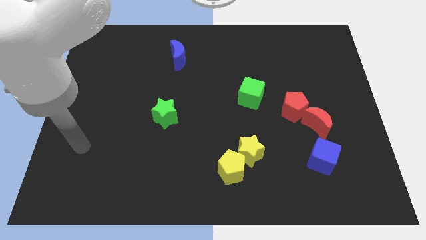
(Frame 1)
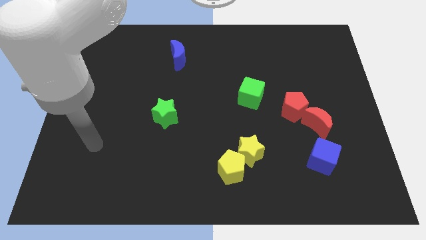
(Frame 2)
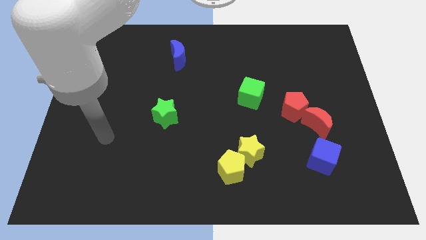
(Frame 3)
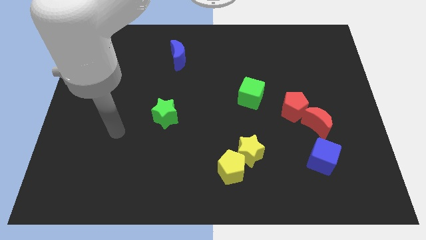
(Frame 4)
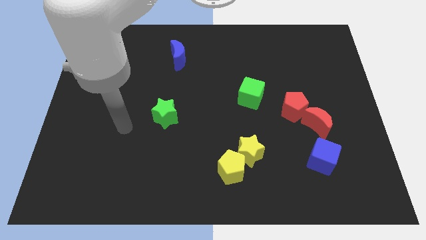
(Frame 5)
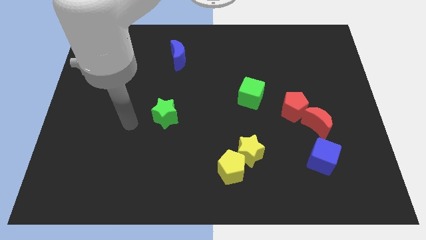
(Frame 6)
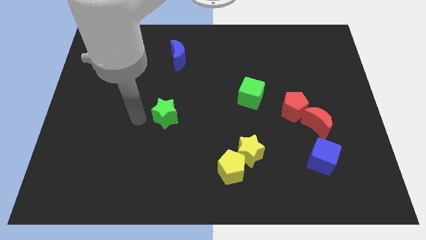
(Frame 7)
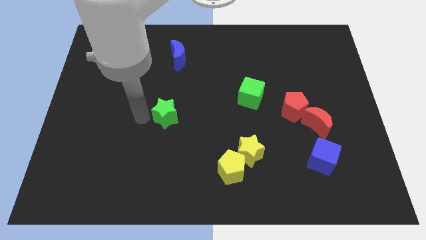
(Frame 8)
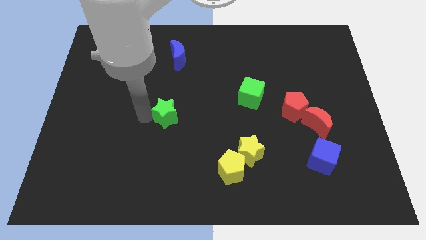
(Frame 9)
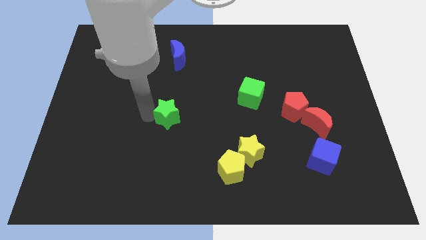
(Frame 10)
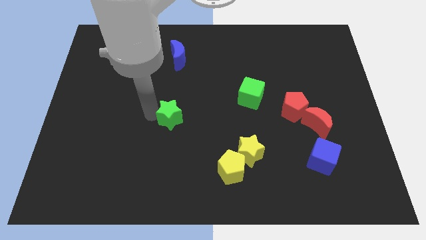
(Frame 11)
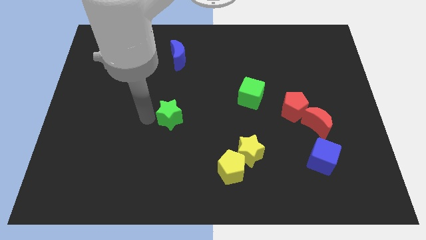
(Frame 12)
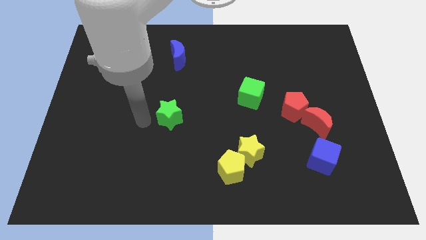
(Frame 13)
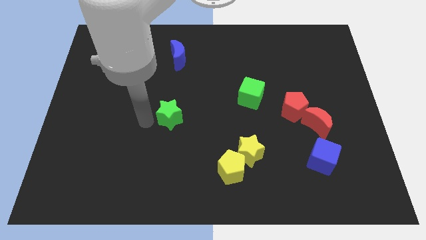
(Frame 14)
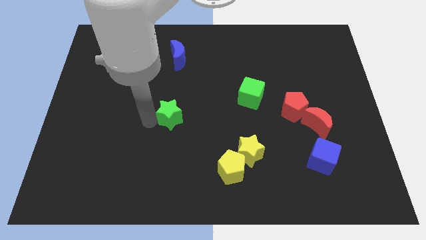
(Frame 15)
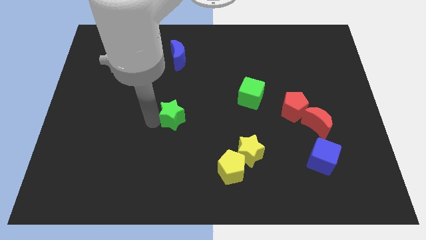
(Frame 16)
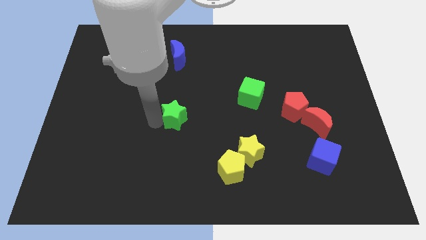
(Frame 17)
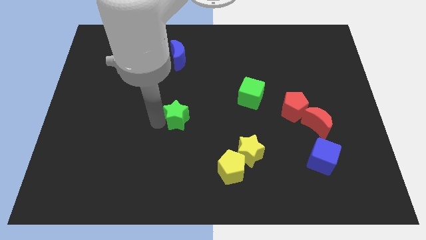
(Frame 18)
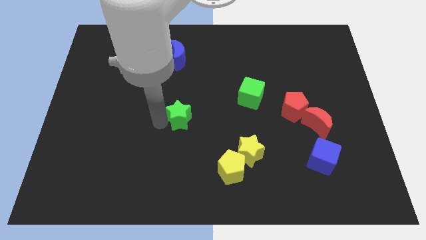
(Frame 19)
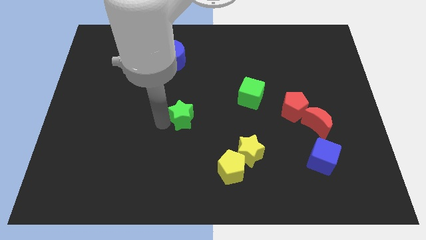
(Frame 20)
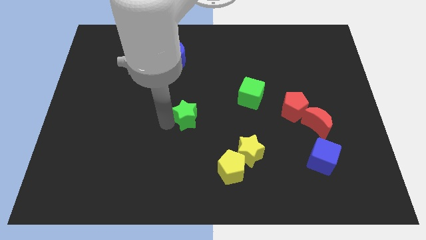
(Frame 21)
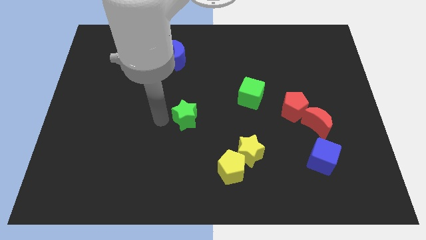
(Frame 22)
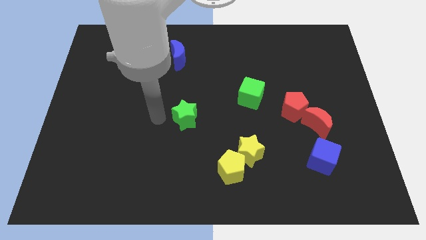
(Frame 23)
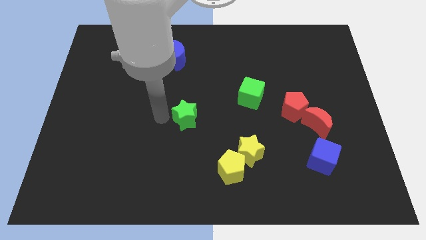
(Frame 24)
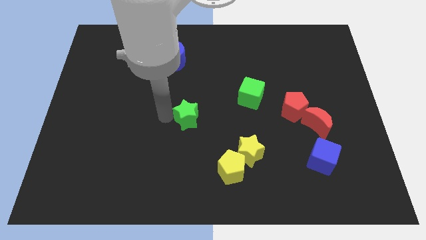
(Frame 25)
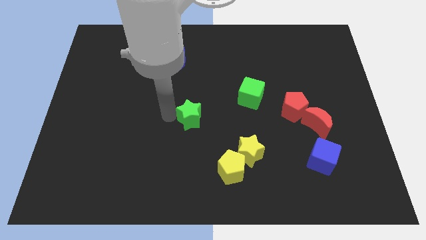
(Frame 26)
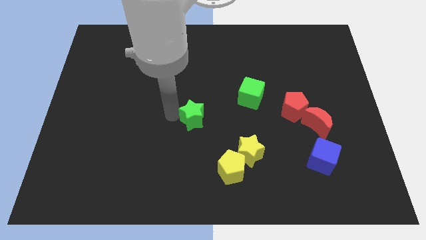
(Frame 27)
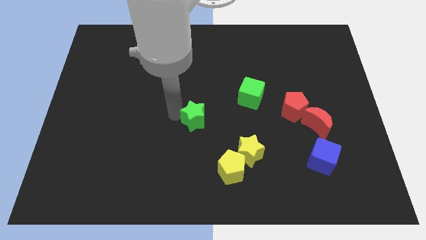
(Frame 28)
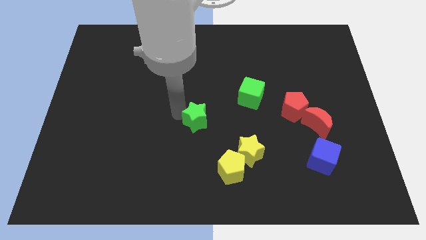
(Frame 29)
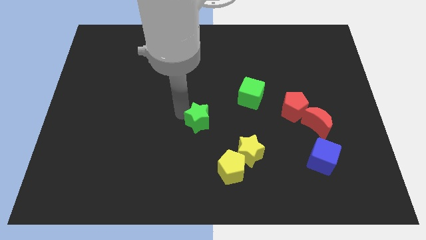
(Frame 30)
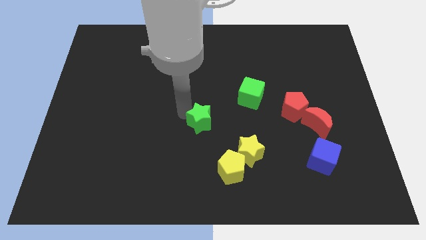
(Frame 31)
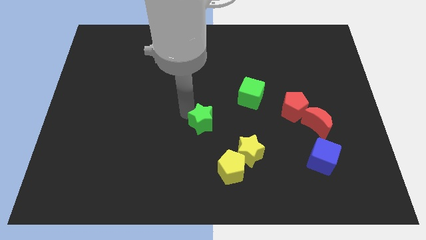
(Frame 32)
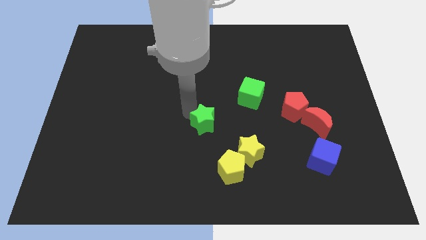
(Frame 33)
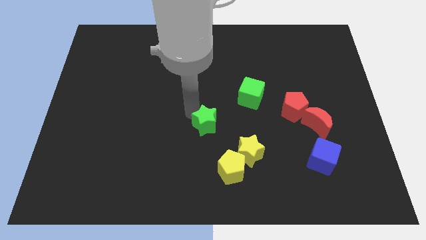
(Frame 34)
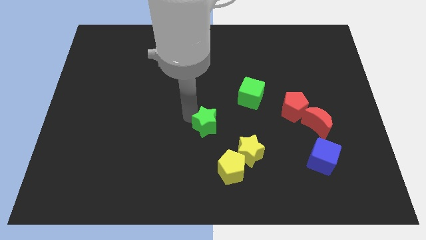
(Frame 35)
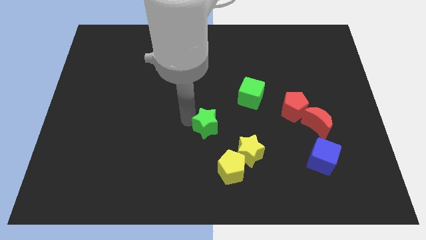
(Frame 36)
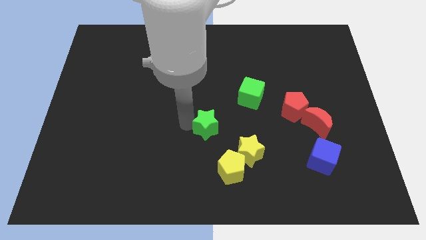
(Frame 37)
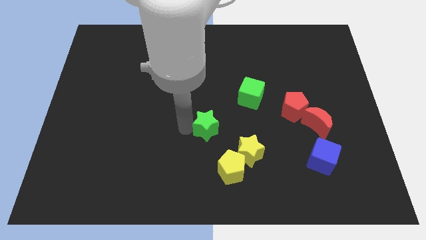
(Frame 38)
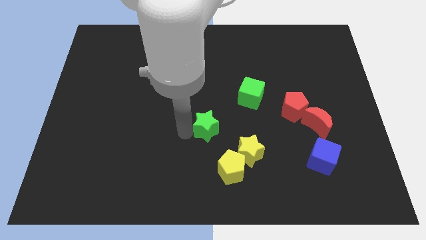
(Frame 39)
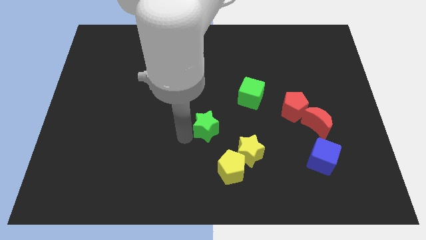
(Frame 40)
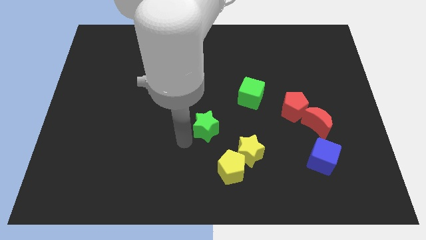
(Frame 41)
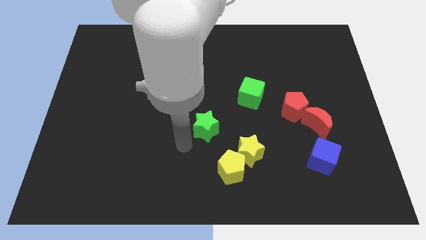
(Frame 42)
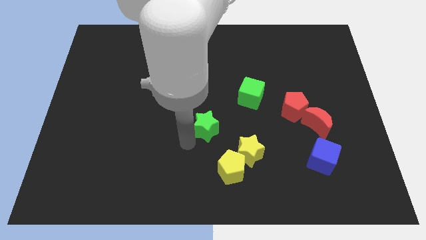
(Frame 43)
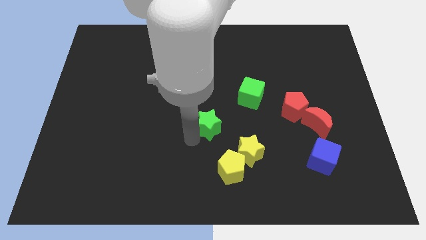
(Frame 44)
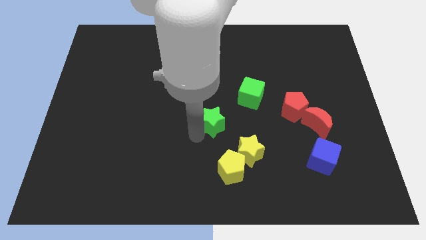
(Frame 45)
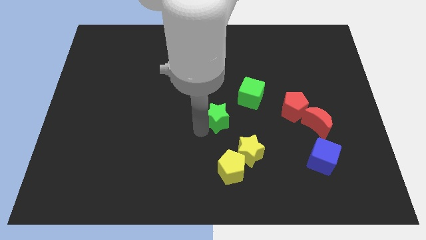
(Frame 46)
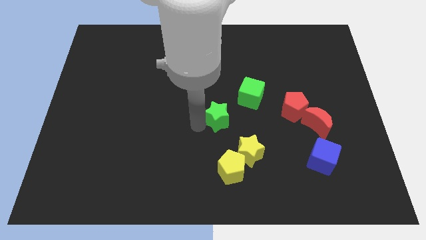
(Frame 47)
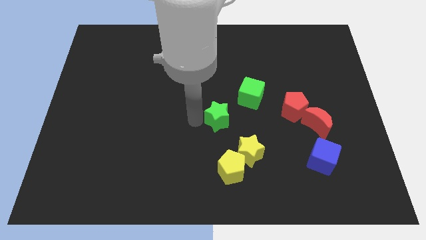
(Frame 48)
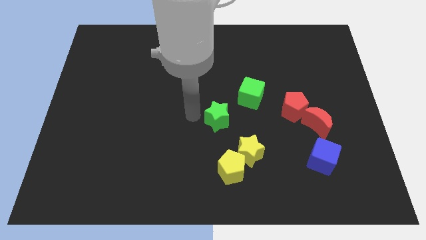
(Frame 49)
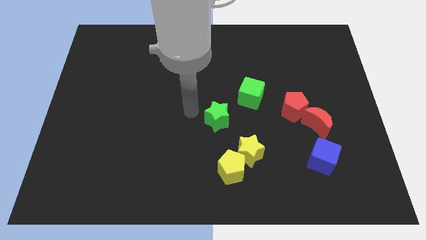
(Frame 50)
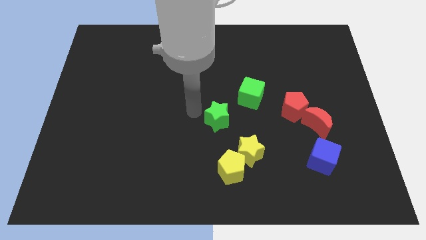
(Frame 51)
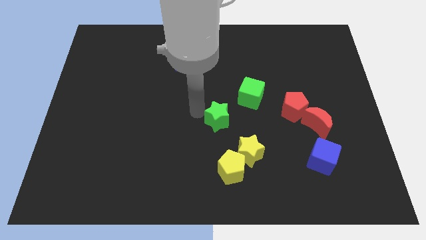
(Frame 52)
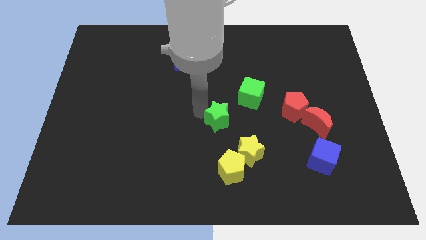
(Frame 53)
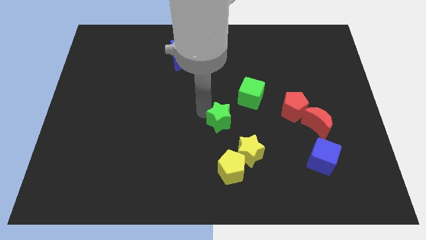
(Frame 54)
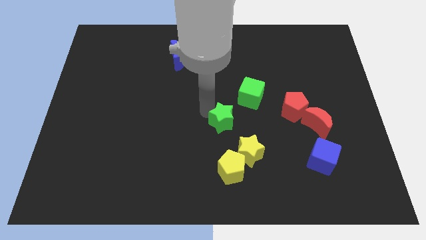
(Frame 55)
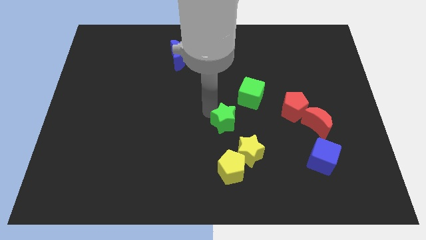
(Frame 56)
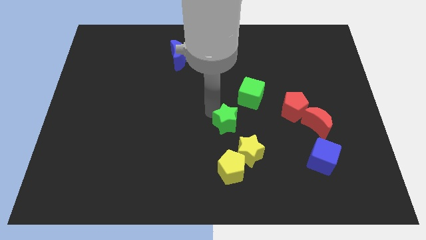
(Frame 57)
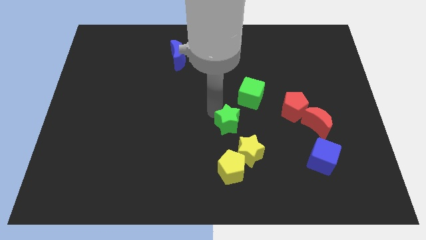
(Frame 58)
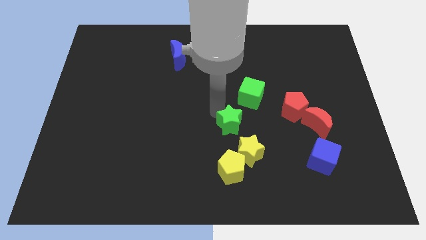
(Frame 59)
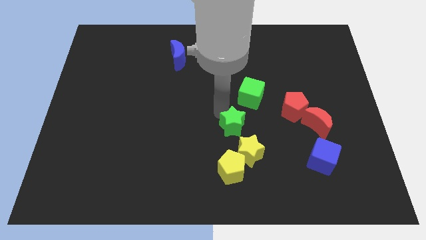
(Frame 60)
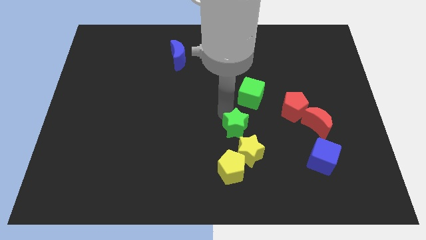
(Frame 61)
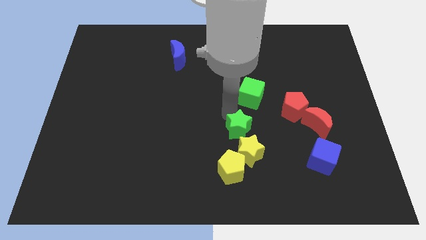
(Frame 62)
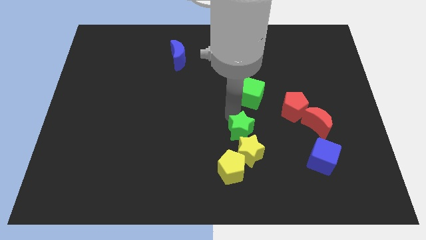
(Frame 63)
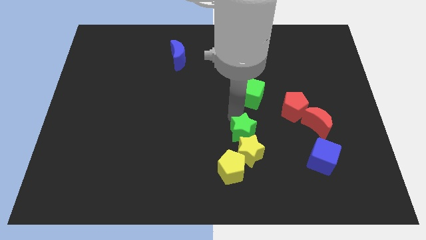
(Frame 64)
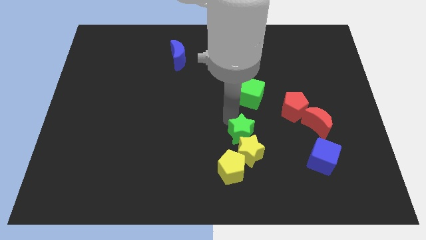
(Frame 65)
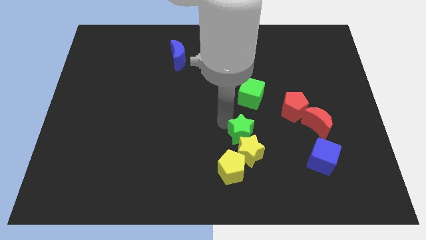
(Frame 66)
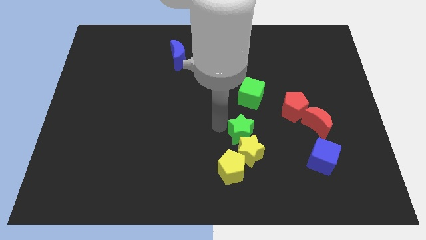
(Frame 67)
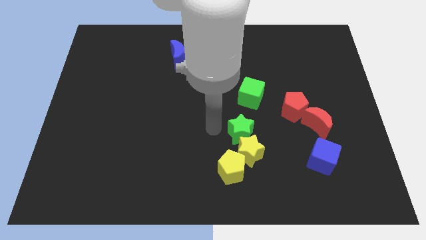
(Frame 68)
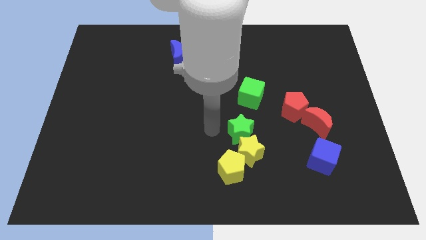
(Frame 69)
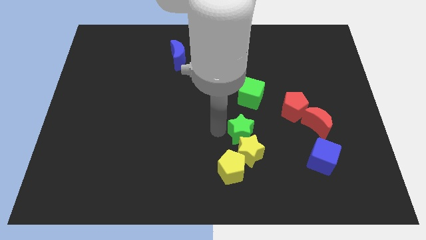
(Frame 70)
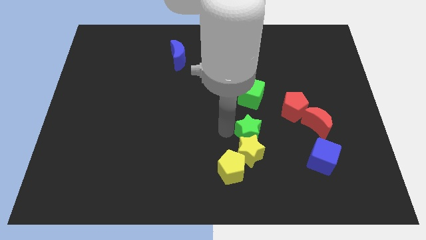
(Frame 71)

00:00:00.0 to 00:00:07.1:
push the green star diagonally up and to the right of the yellow star

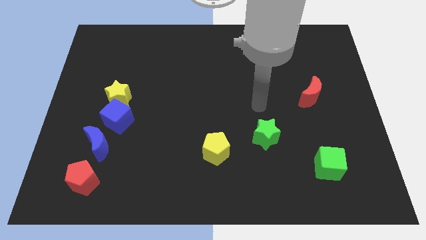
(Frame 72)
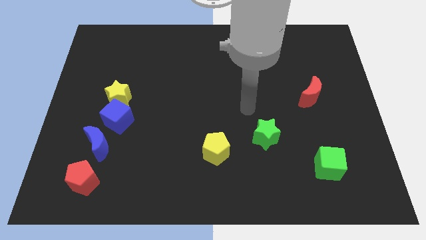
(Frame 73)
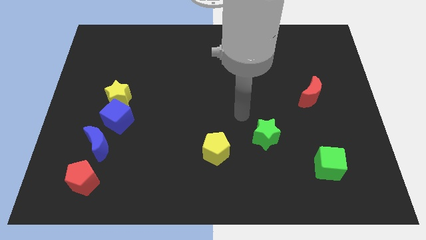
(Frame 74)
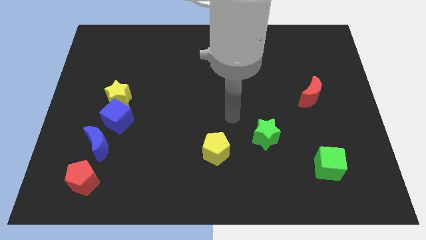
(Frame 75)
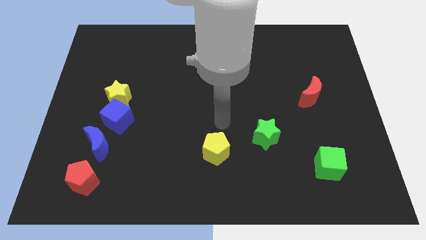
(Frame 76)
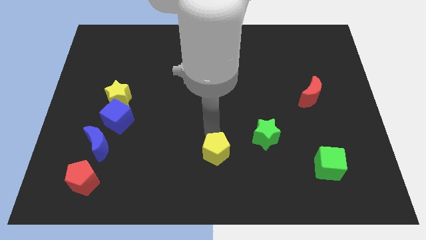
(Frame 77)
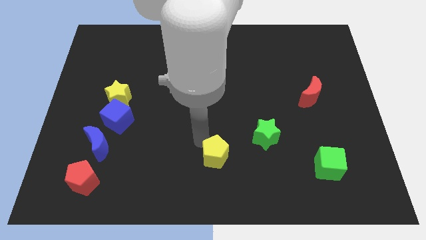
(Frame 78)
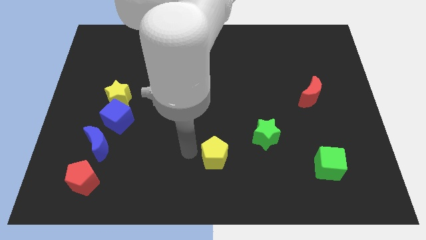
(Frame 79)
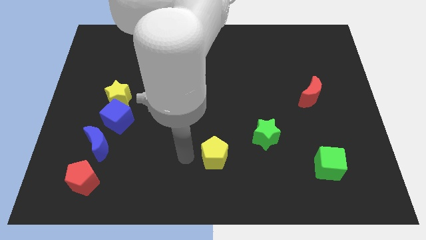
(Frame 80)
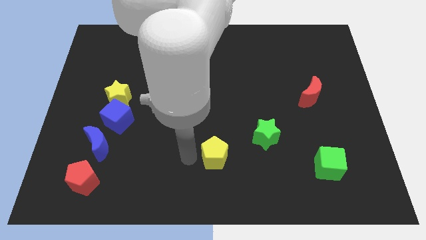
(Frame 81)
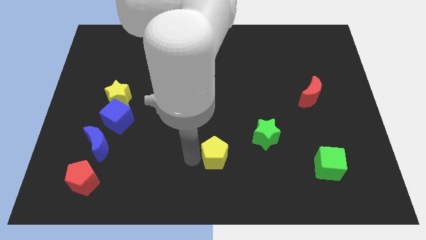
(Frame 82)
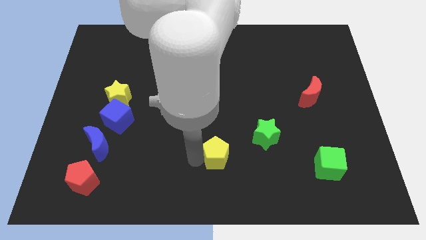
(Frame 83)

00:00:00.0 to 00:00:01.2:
slide the yellow pentagon to the bottom left side of the green star
